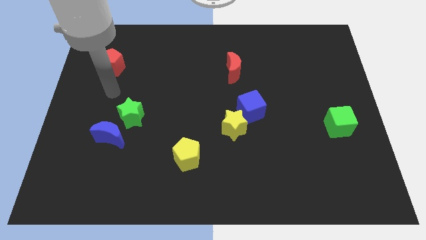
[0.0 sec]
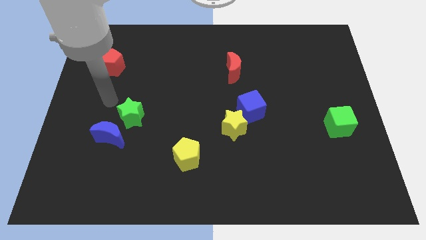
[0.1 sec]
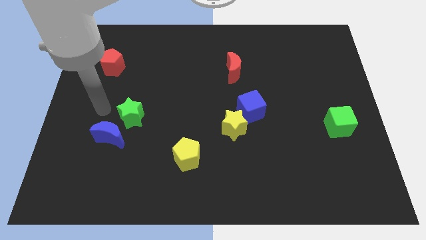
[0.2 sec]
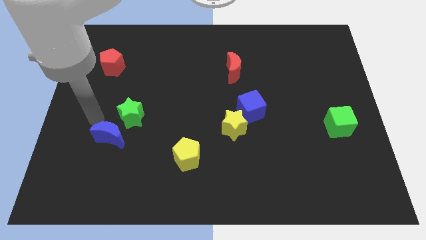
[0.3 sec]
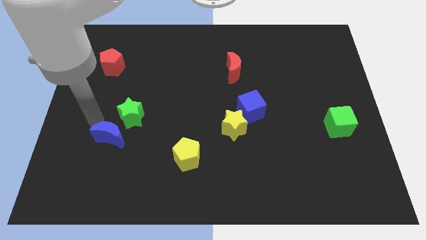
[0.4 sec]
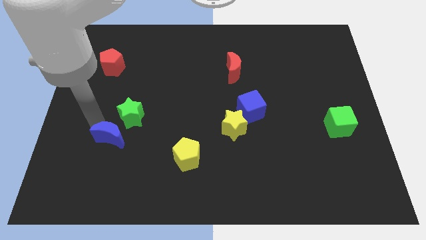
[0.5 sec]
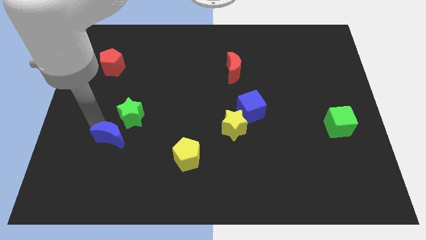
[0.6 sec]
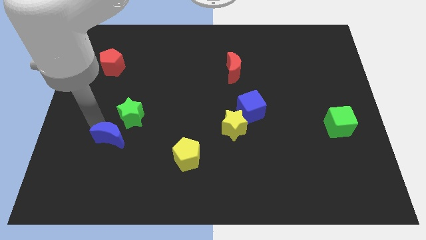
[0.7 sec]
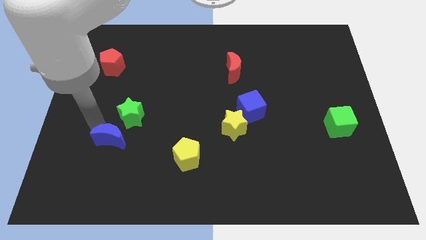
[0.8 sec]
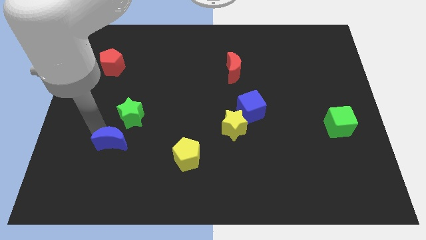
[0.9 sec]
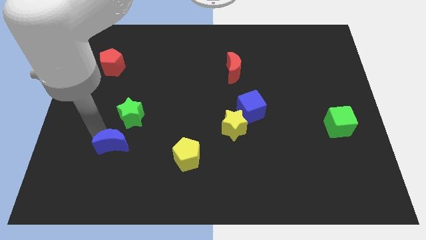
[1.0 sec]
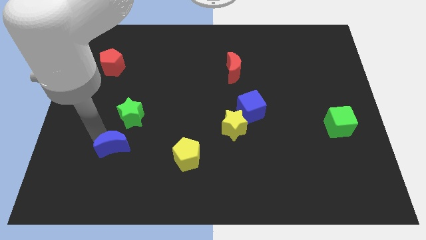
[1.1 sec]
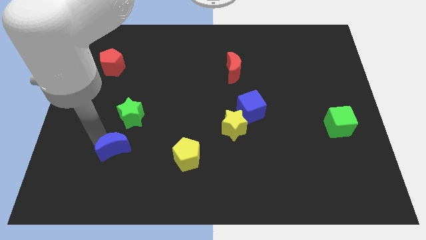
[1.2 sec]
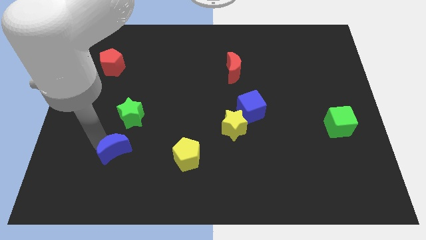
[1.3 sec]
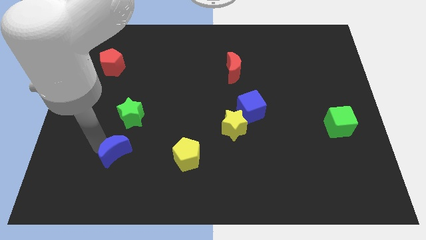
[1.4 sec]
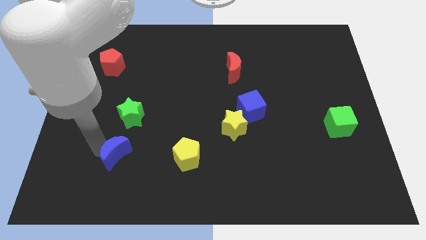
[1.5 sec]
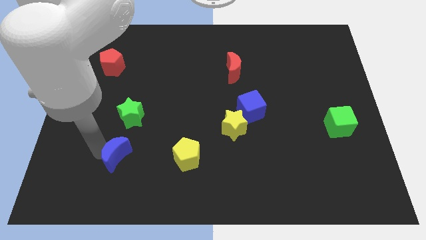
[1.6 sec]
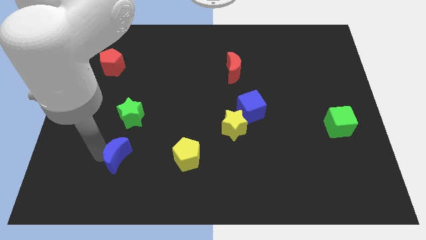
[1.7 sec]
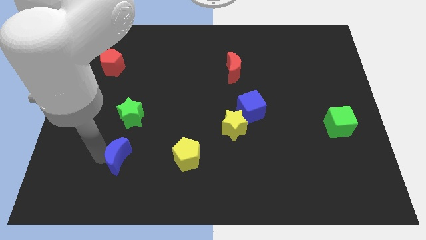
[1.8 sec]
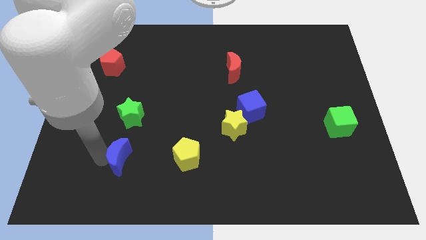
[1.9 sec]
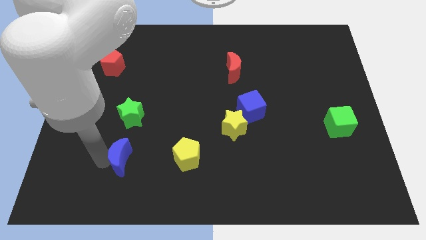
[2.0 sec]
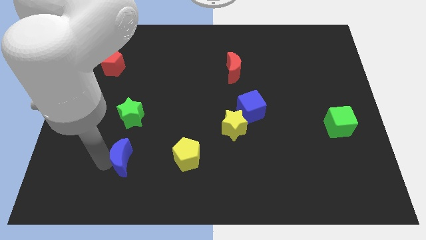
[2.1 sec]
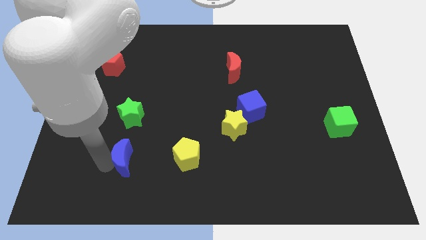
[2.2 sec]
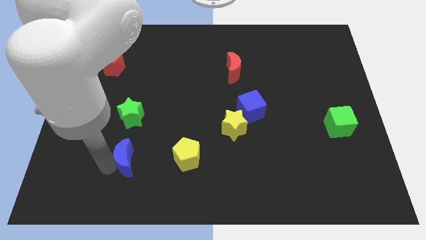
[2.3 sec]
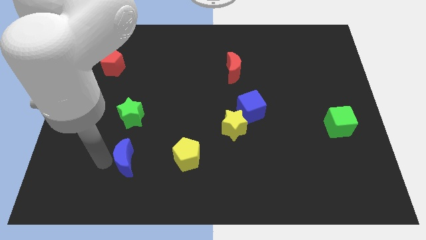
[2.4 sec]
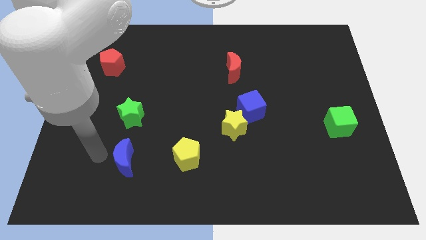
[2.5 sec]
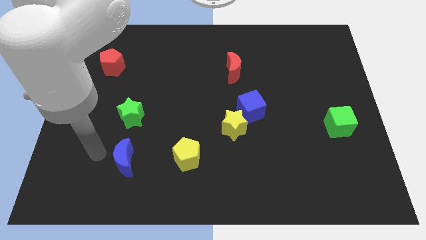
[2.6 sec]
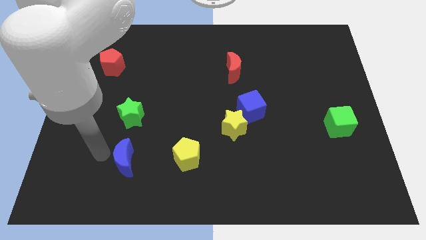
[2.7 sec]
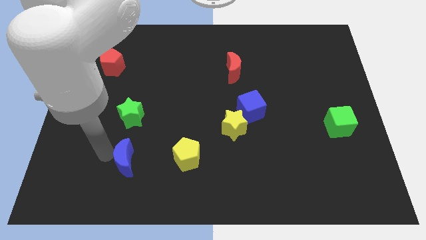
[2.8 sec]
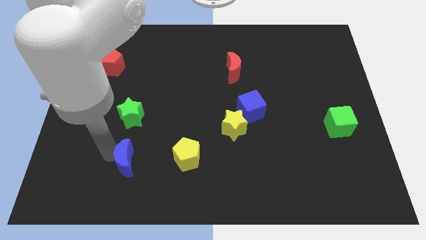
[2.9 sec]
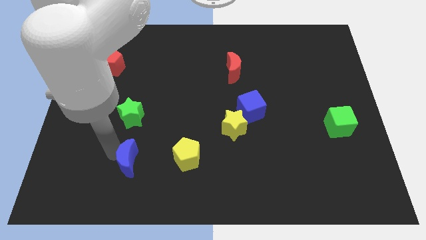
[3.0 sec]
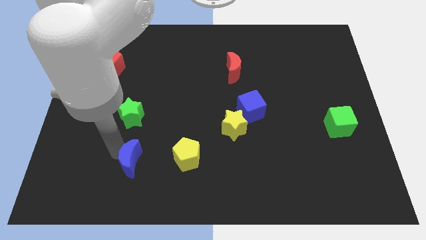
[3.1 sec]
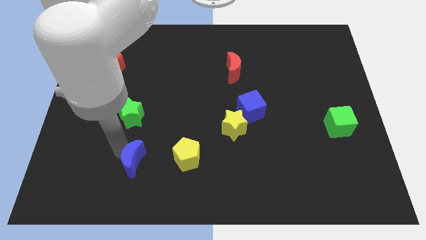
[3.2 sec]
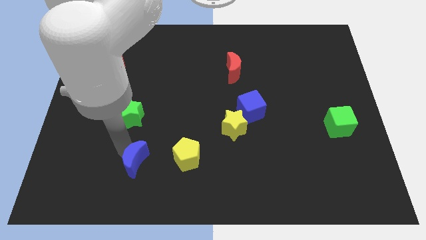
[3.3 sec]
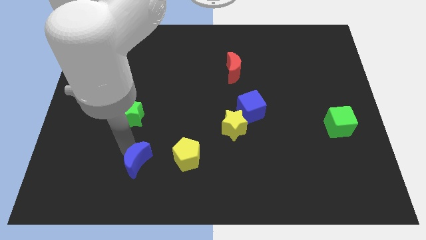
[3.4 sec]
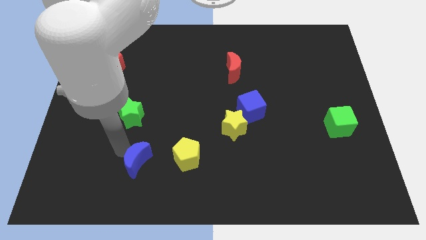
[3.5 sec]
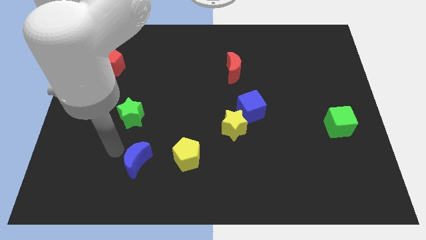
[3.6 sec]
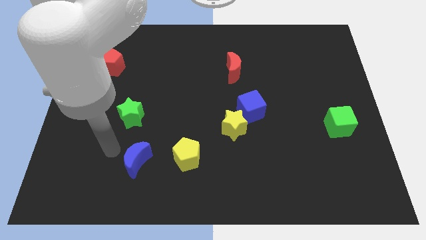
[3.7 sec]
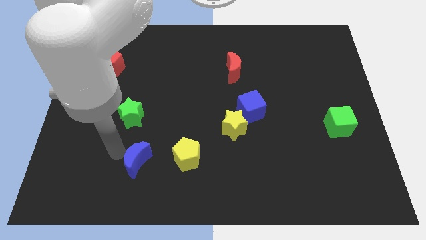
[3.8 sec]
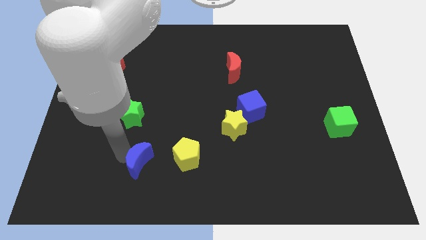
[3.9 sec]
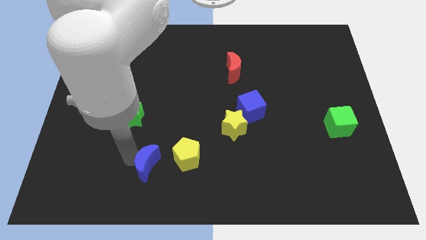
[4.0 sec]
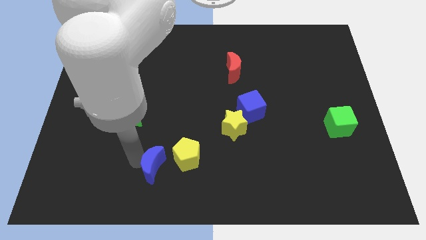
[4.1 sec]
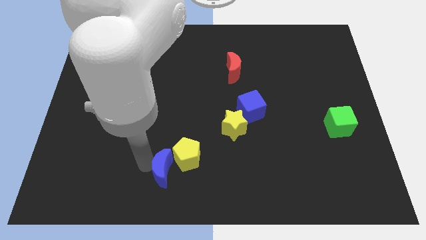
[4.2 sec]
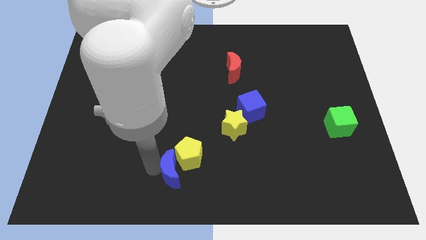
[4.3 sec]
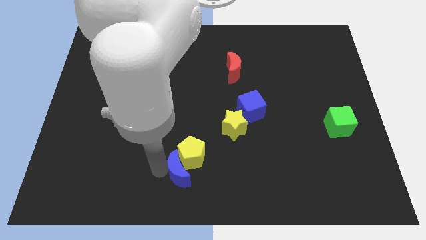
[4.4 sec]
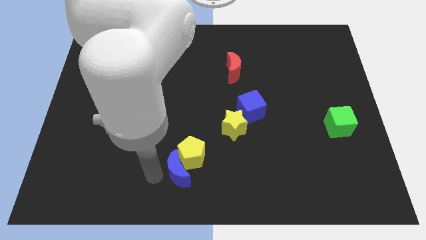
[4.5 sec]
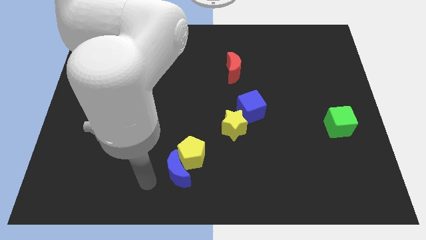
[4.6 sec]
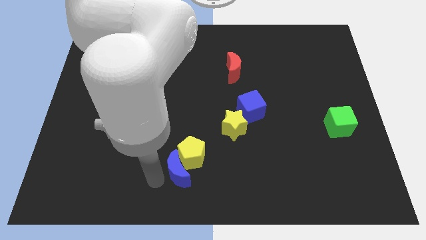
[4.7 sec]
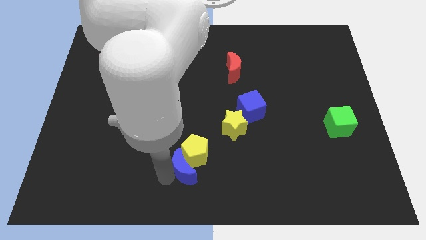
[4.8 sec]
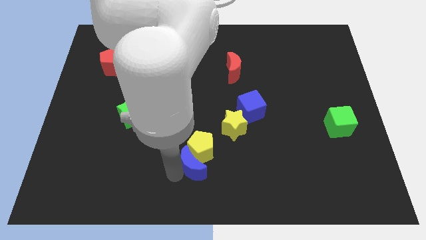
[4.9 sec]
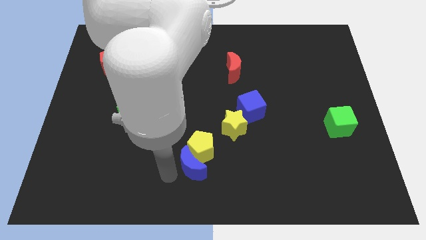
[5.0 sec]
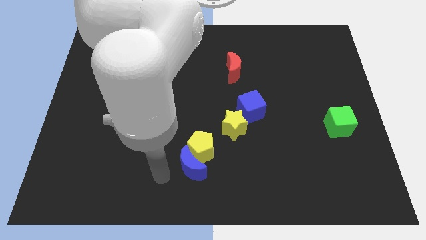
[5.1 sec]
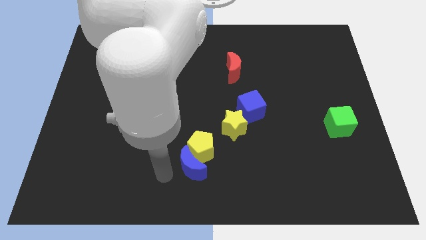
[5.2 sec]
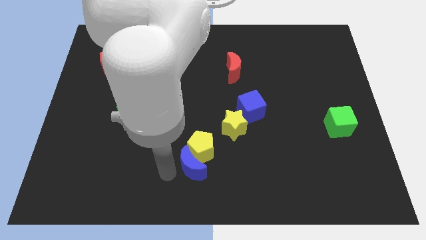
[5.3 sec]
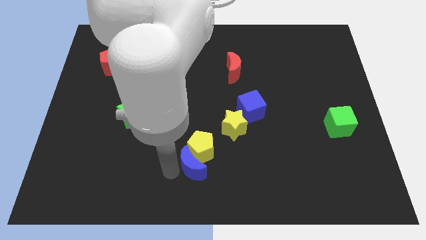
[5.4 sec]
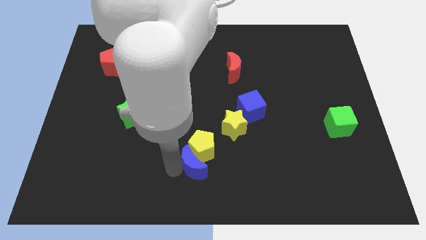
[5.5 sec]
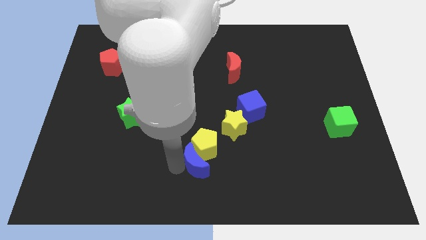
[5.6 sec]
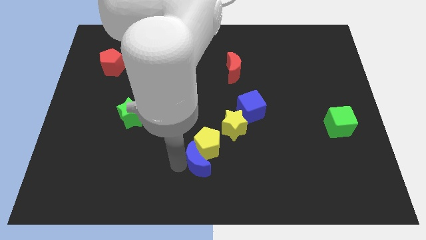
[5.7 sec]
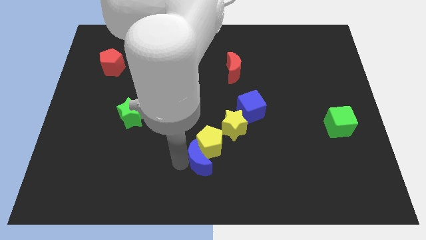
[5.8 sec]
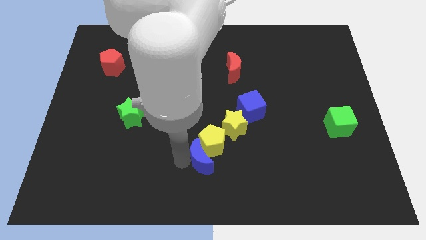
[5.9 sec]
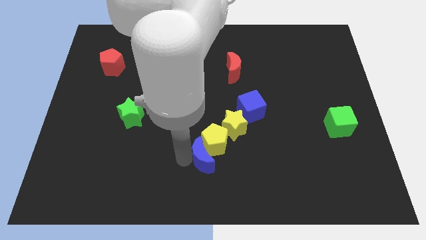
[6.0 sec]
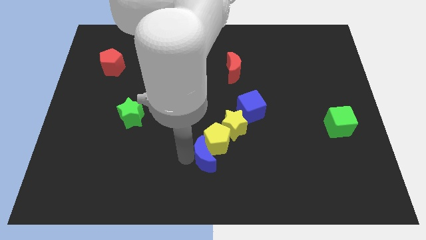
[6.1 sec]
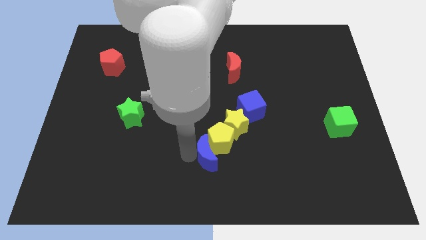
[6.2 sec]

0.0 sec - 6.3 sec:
push the blue moon right

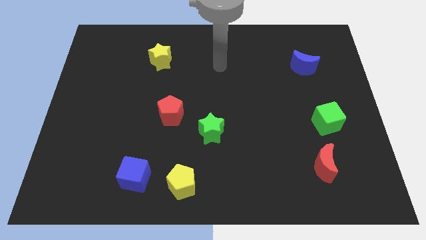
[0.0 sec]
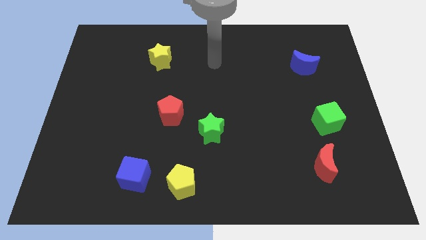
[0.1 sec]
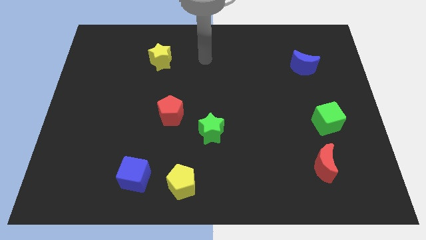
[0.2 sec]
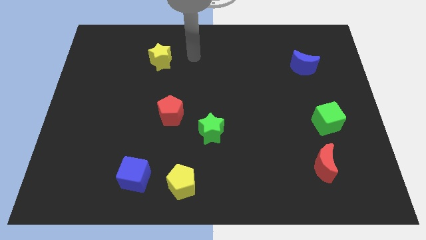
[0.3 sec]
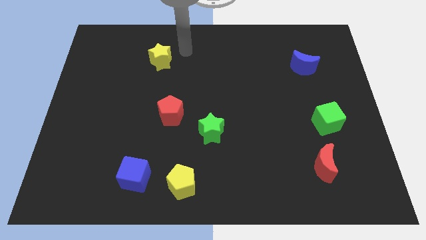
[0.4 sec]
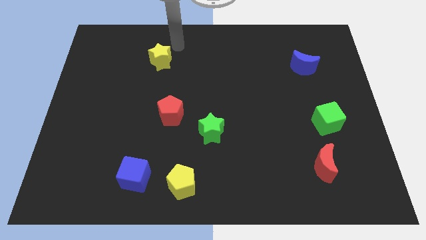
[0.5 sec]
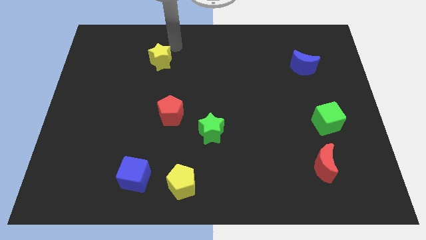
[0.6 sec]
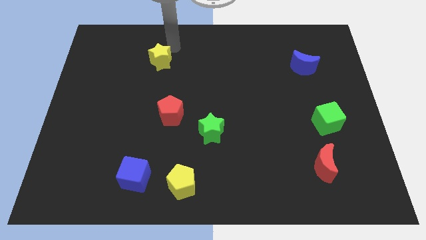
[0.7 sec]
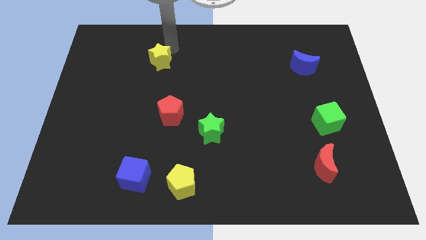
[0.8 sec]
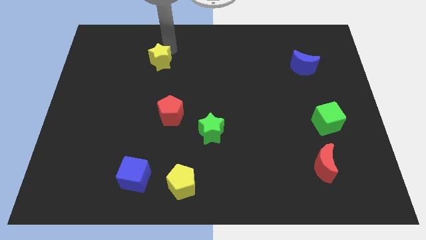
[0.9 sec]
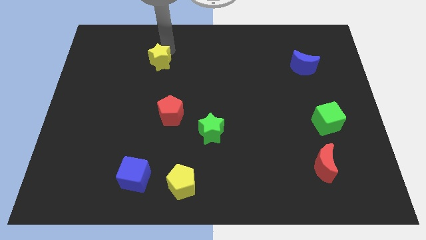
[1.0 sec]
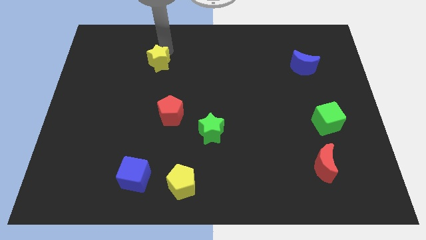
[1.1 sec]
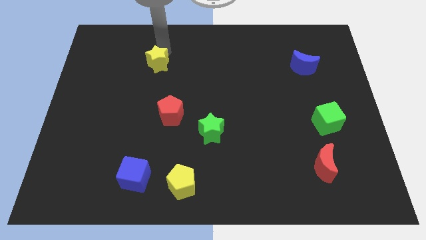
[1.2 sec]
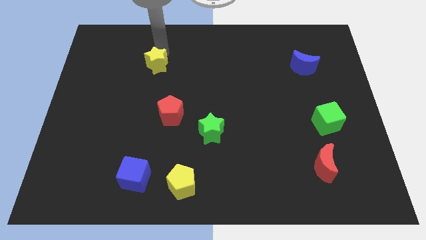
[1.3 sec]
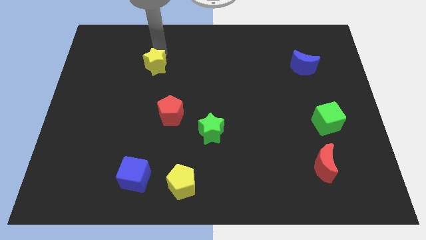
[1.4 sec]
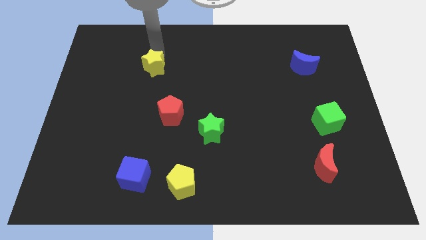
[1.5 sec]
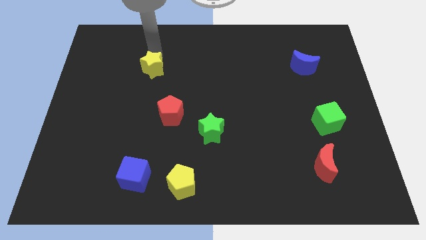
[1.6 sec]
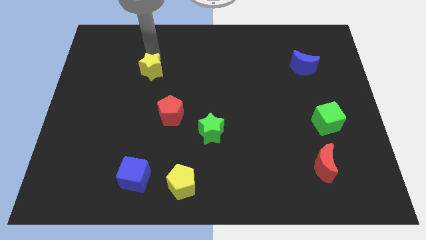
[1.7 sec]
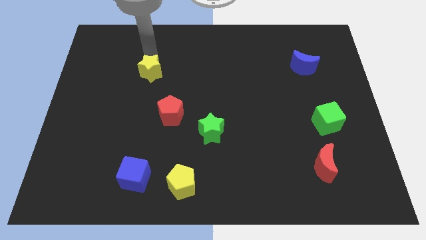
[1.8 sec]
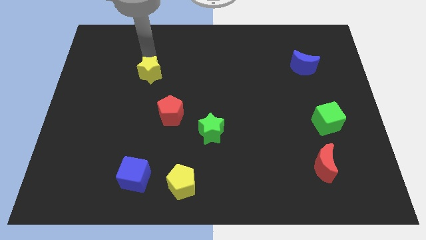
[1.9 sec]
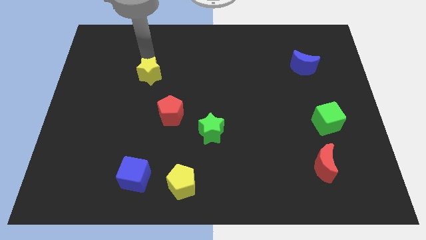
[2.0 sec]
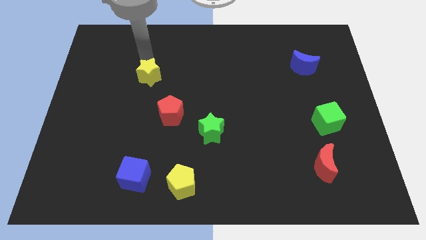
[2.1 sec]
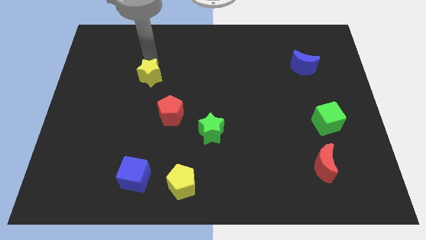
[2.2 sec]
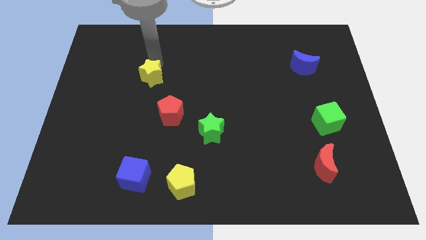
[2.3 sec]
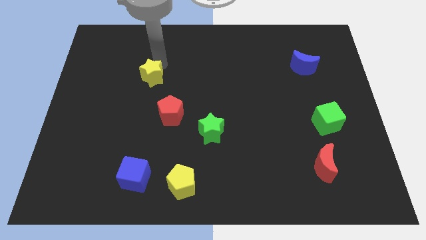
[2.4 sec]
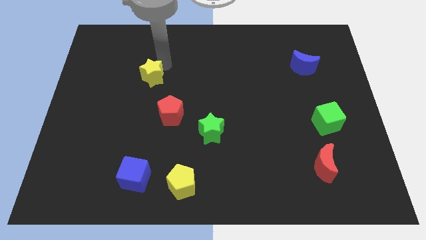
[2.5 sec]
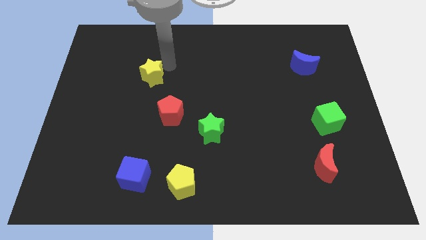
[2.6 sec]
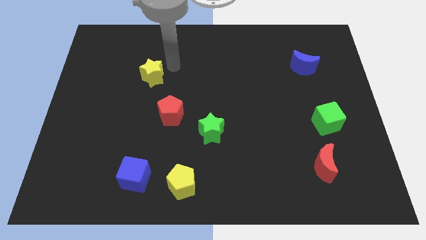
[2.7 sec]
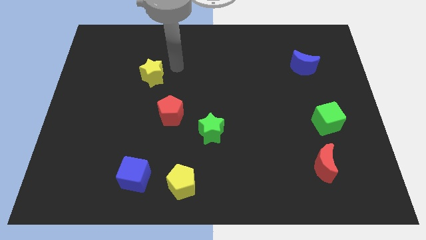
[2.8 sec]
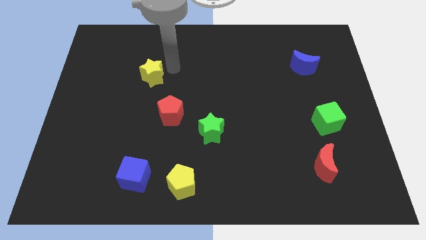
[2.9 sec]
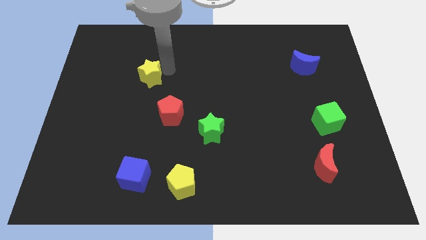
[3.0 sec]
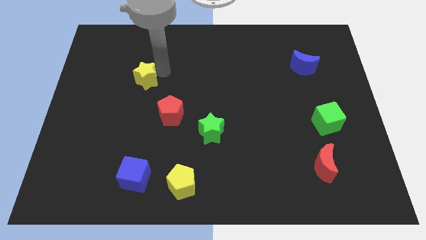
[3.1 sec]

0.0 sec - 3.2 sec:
push the yellow star down and to the left slightly
